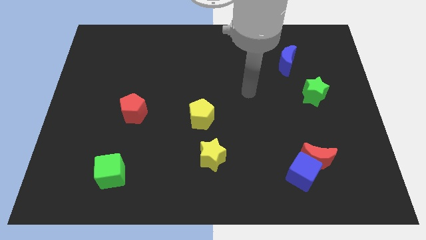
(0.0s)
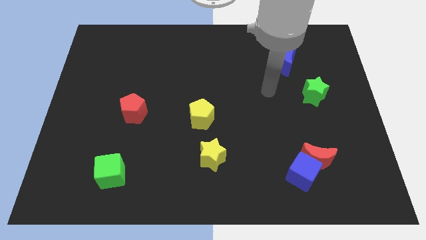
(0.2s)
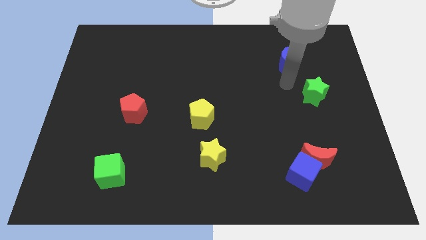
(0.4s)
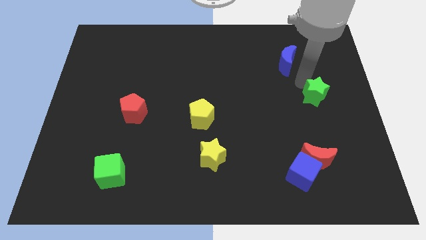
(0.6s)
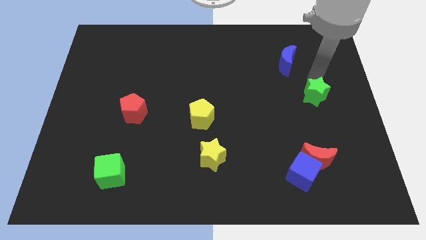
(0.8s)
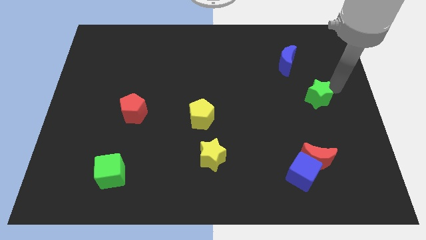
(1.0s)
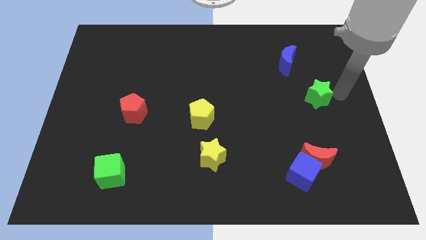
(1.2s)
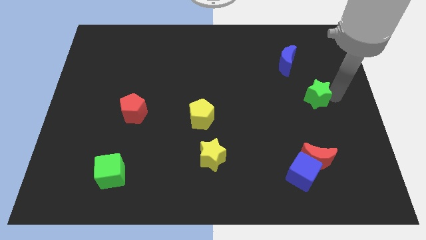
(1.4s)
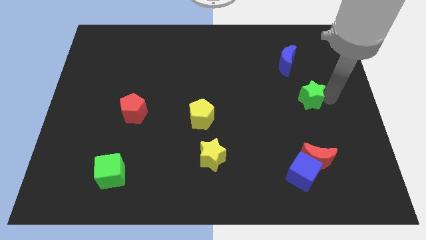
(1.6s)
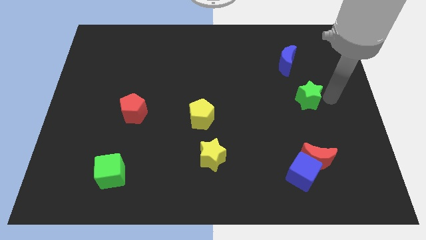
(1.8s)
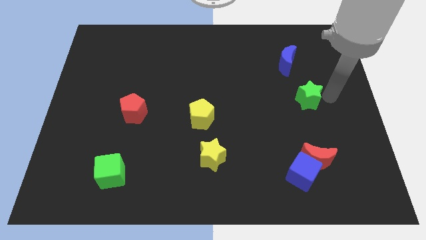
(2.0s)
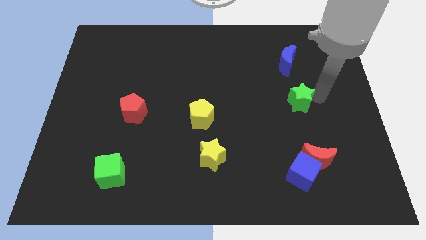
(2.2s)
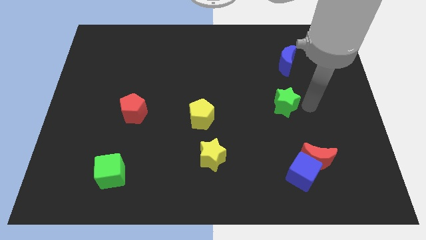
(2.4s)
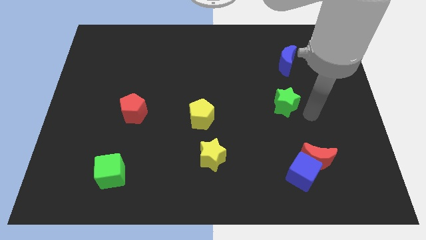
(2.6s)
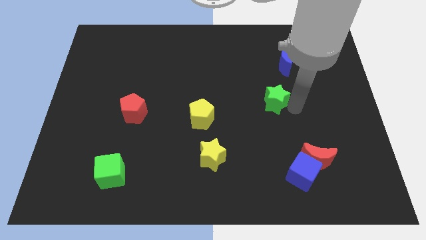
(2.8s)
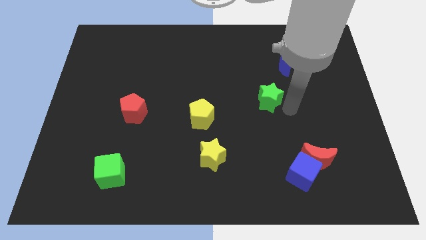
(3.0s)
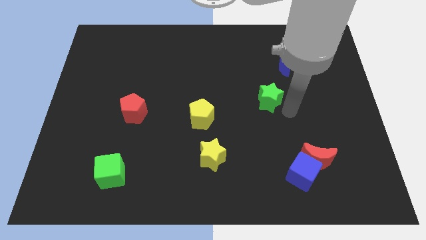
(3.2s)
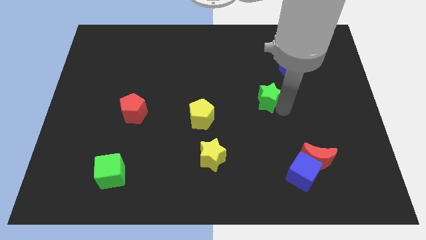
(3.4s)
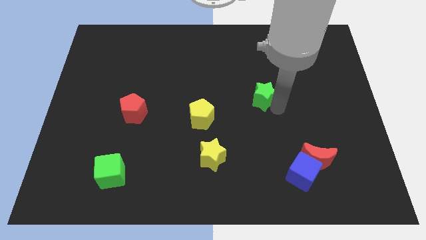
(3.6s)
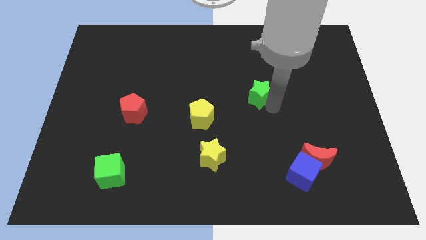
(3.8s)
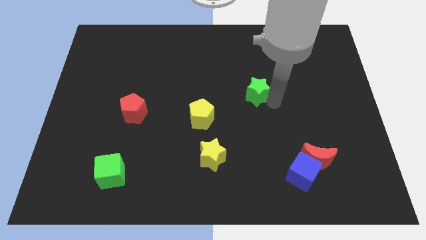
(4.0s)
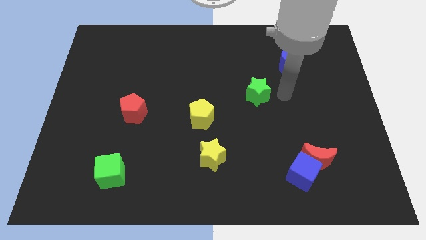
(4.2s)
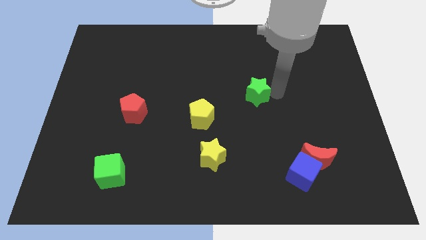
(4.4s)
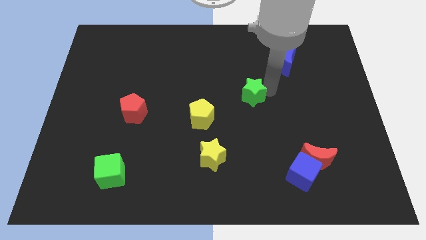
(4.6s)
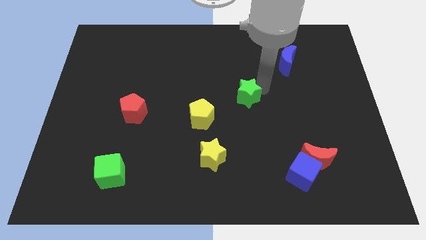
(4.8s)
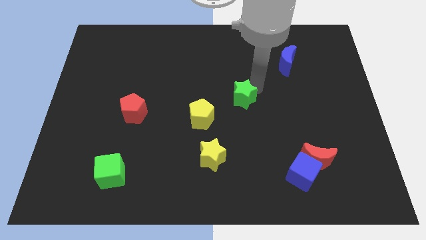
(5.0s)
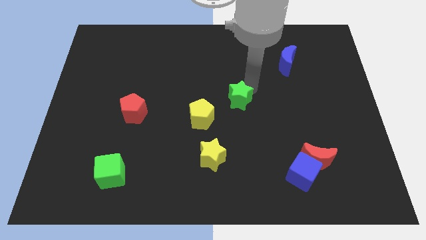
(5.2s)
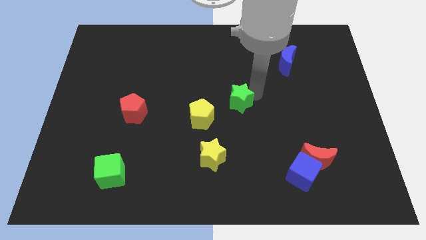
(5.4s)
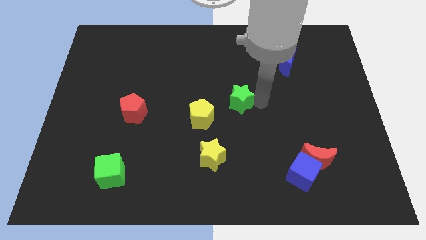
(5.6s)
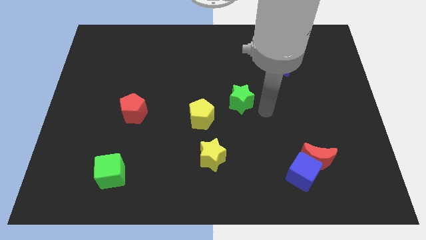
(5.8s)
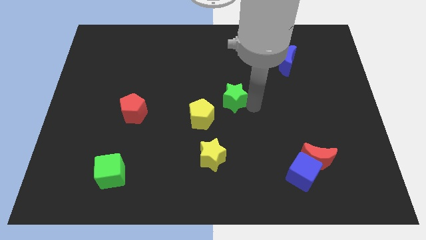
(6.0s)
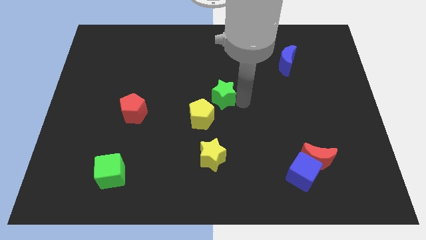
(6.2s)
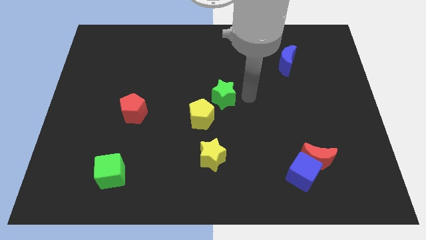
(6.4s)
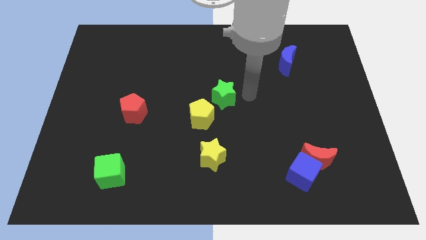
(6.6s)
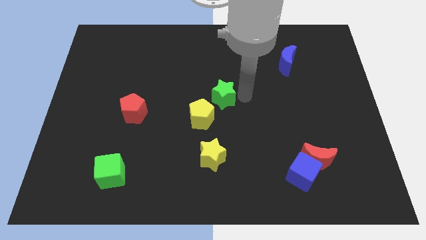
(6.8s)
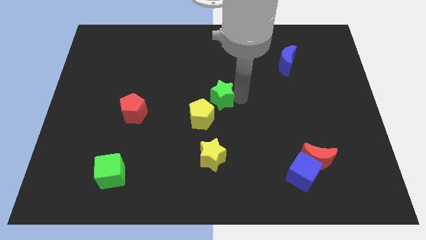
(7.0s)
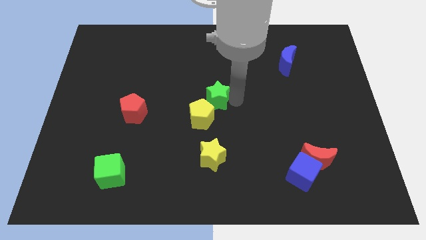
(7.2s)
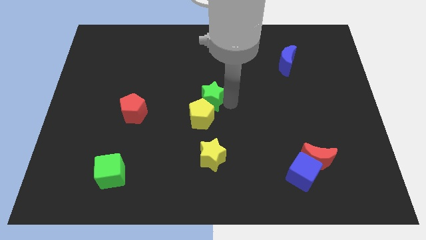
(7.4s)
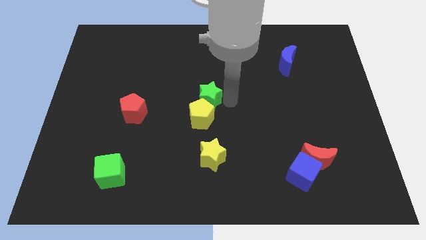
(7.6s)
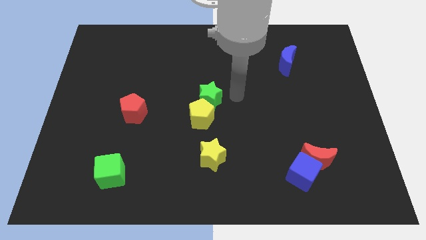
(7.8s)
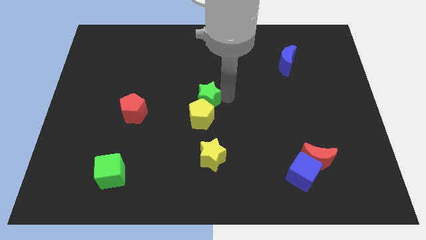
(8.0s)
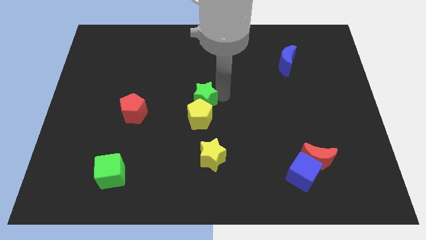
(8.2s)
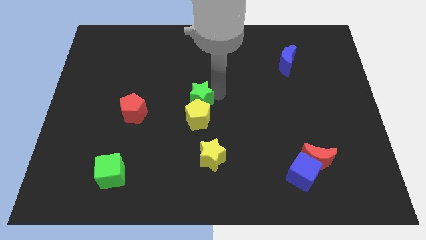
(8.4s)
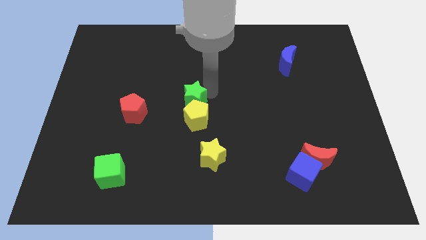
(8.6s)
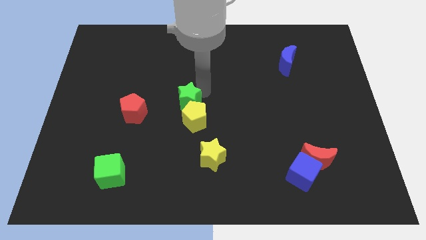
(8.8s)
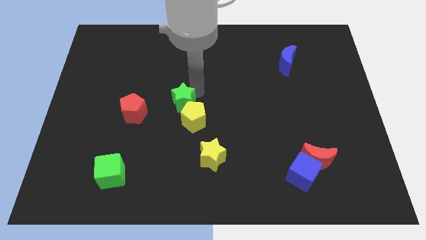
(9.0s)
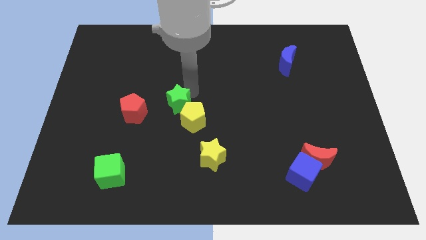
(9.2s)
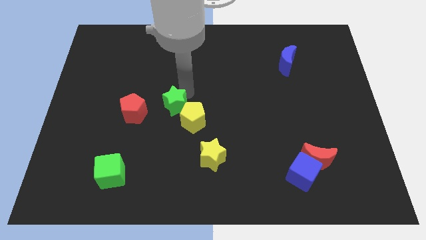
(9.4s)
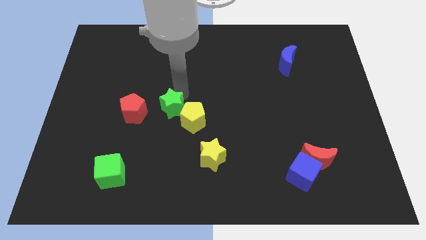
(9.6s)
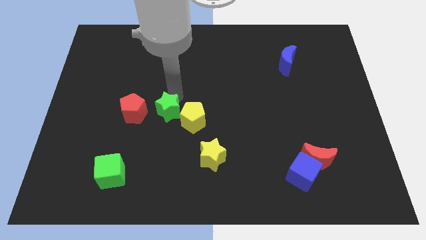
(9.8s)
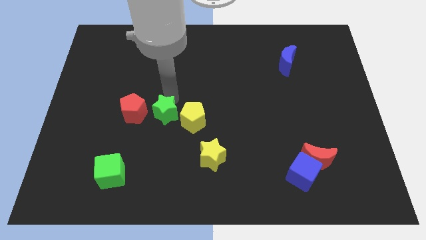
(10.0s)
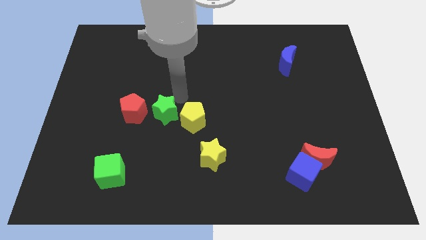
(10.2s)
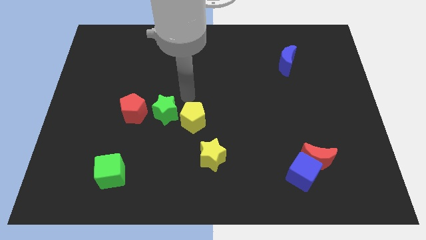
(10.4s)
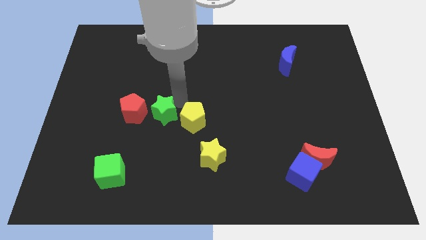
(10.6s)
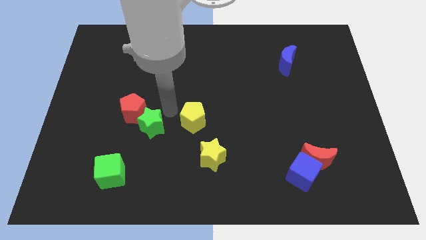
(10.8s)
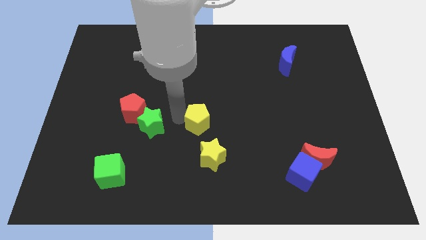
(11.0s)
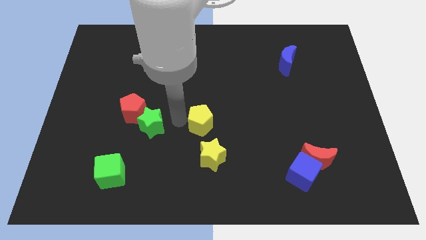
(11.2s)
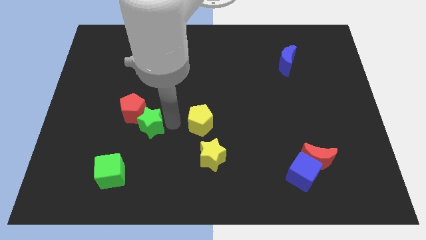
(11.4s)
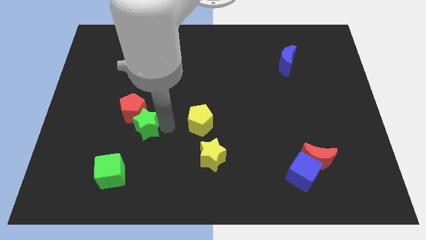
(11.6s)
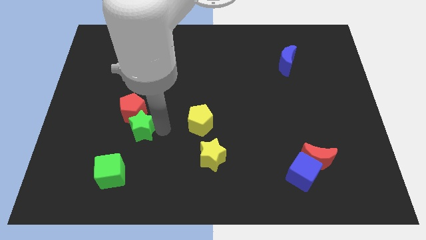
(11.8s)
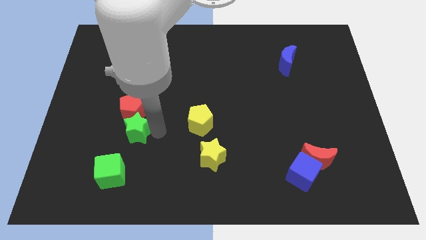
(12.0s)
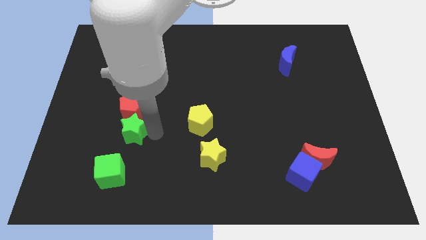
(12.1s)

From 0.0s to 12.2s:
put the green star diagonally down and to the left of the red pentagon
